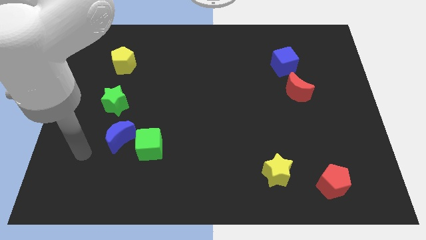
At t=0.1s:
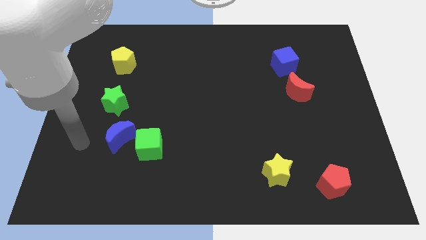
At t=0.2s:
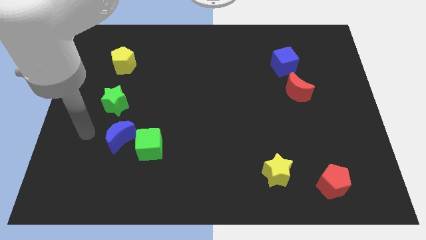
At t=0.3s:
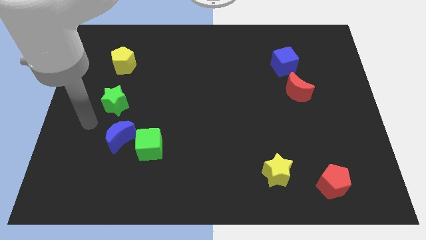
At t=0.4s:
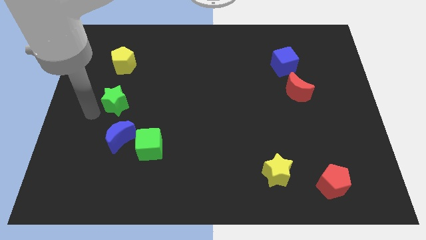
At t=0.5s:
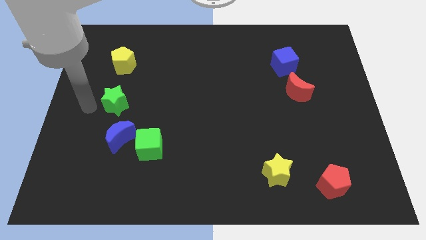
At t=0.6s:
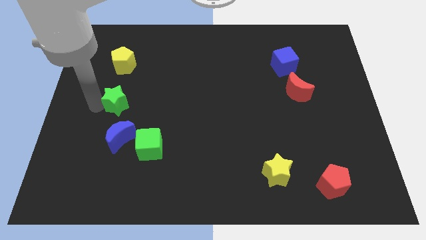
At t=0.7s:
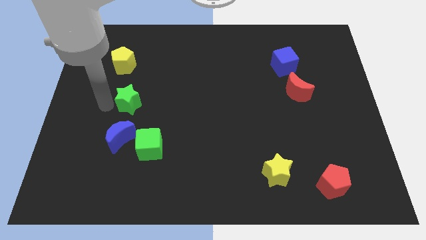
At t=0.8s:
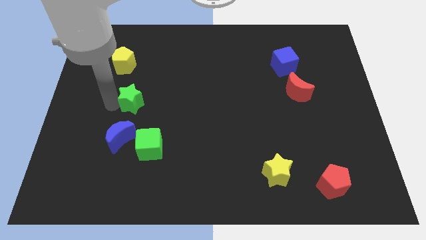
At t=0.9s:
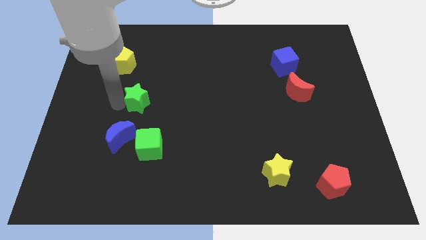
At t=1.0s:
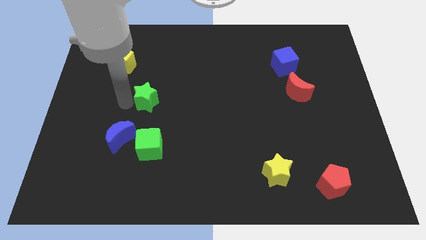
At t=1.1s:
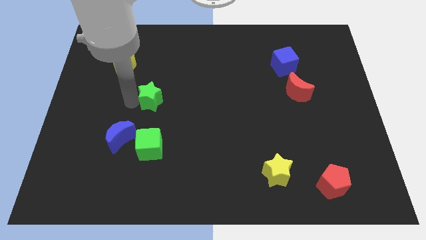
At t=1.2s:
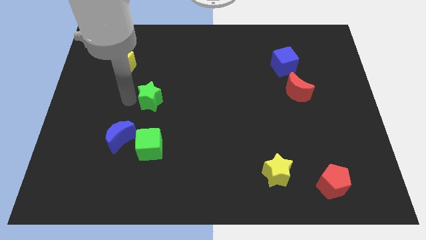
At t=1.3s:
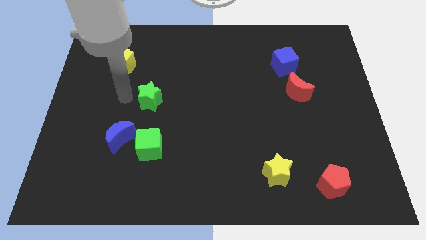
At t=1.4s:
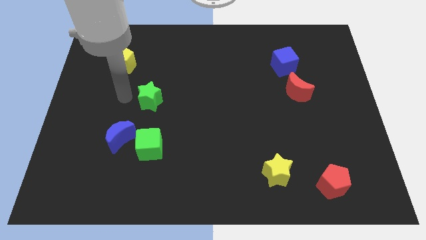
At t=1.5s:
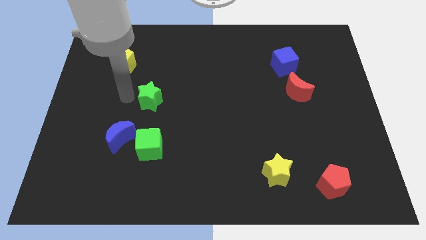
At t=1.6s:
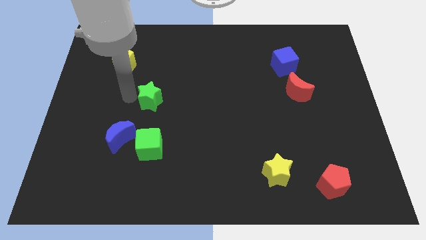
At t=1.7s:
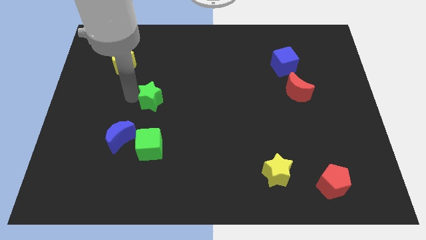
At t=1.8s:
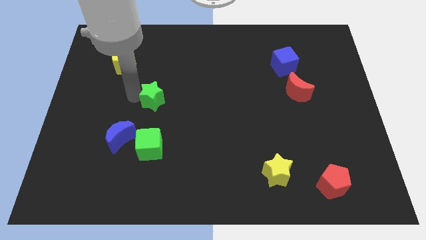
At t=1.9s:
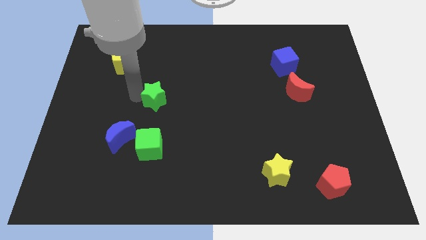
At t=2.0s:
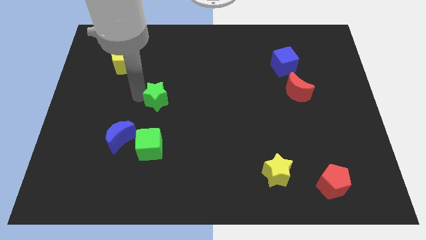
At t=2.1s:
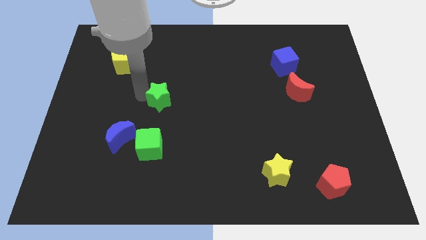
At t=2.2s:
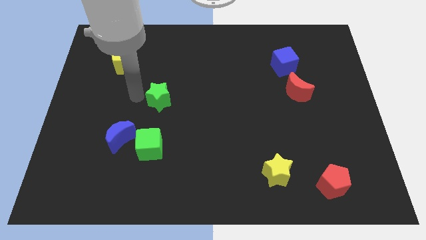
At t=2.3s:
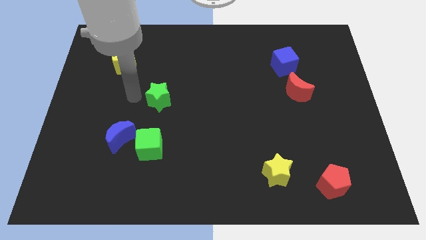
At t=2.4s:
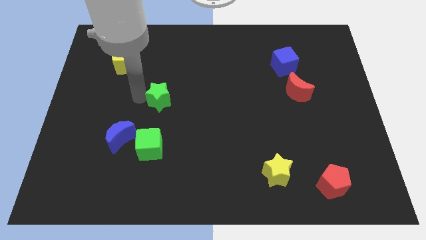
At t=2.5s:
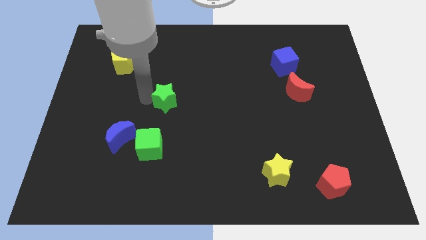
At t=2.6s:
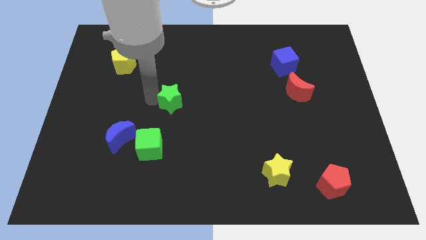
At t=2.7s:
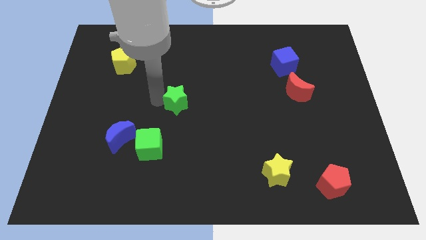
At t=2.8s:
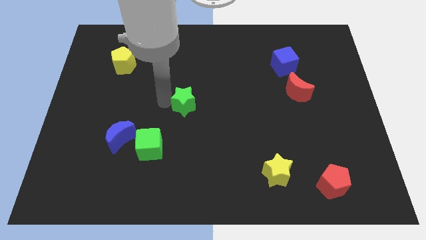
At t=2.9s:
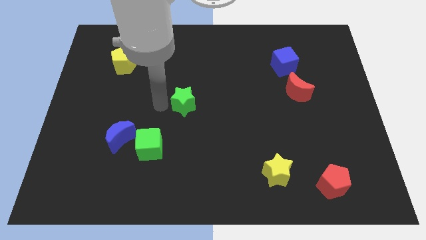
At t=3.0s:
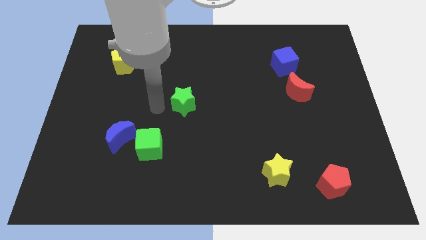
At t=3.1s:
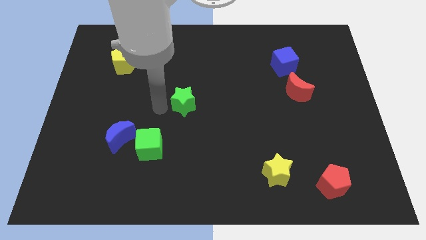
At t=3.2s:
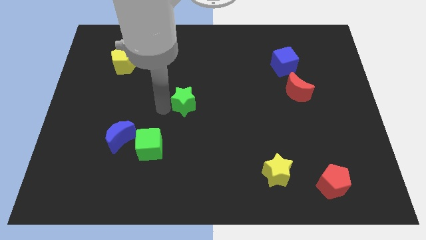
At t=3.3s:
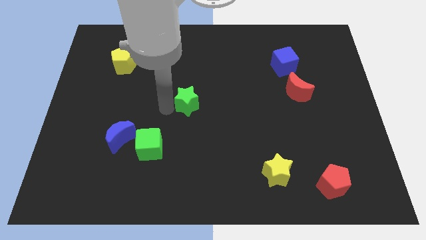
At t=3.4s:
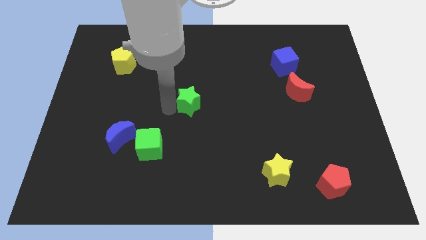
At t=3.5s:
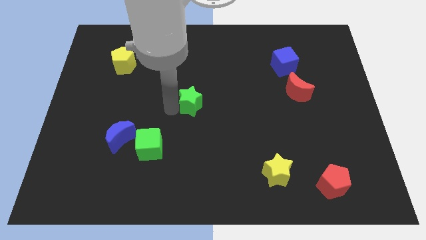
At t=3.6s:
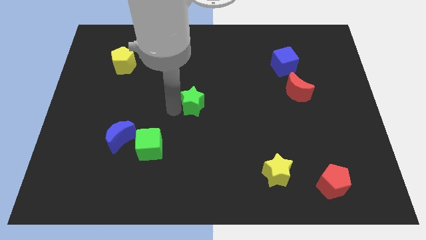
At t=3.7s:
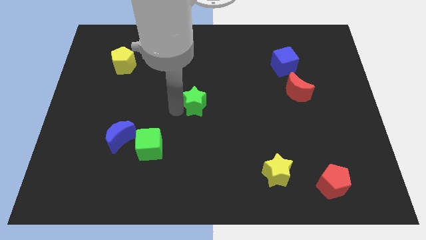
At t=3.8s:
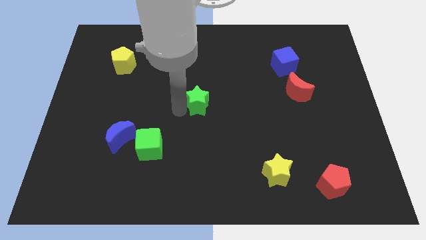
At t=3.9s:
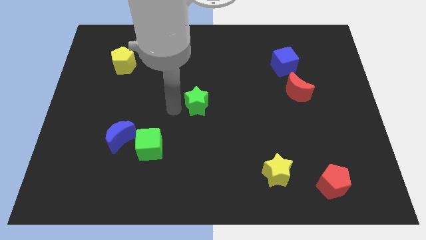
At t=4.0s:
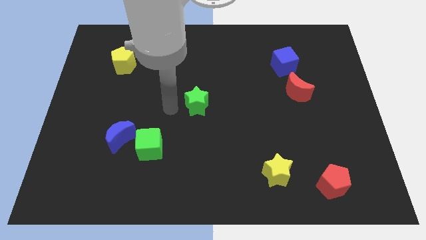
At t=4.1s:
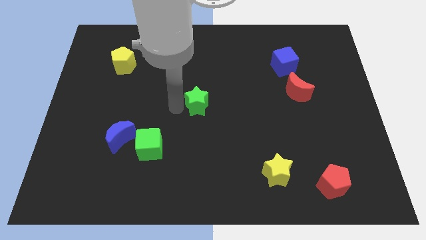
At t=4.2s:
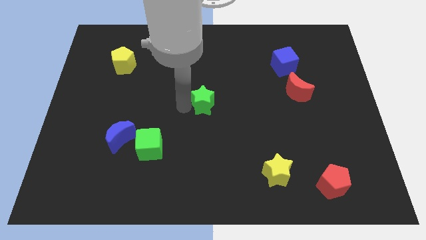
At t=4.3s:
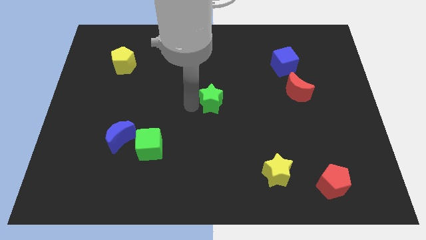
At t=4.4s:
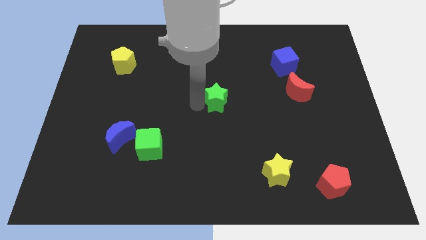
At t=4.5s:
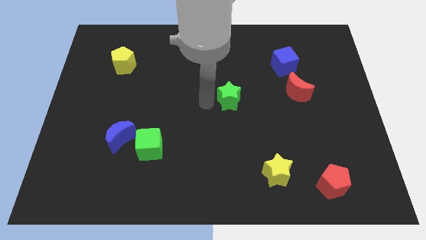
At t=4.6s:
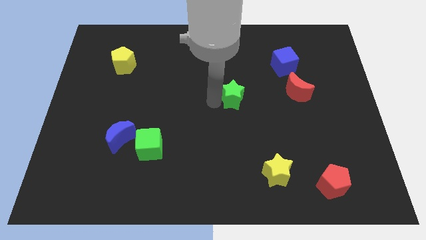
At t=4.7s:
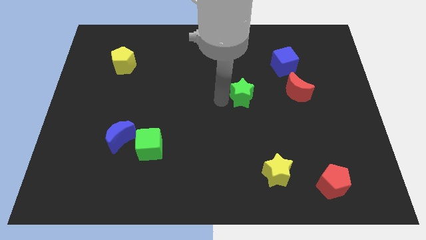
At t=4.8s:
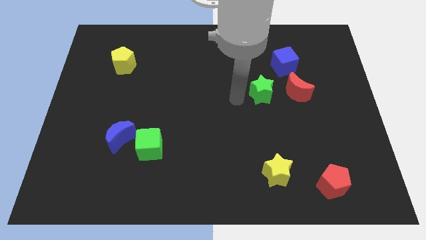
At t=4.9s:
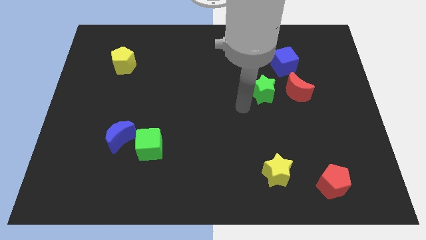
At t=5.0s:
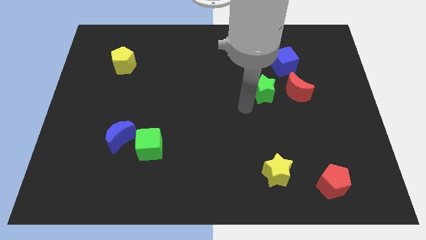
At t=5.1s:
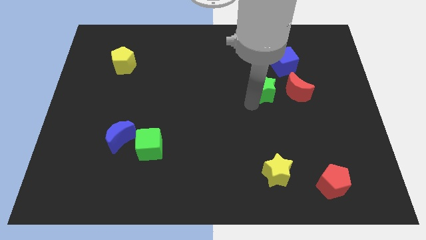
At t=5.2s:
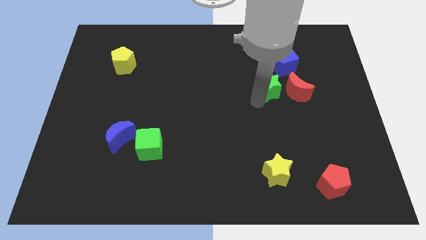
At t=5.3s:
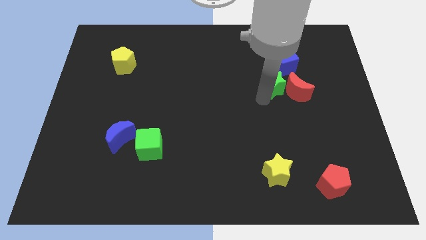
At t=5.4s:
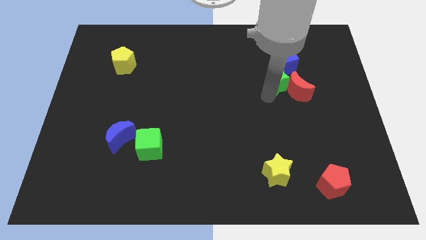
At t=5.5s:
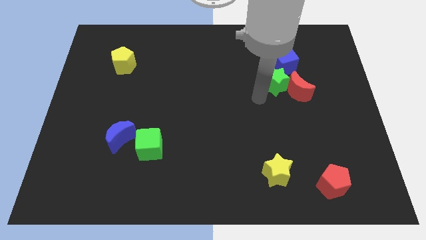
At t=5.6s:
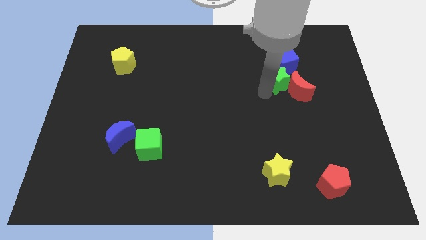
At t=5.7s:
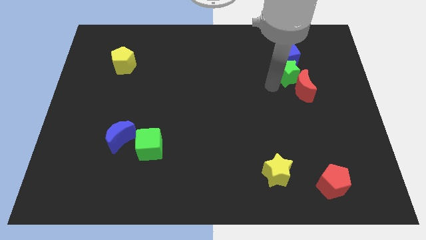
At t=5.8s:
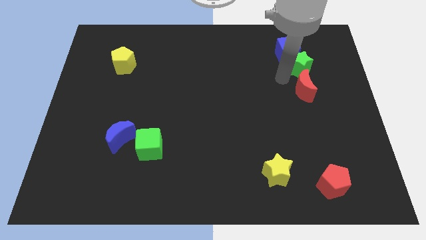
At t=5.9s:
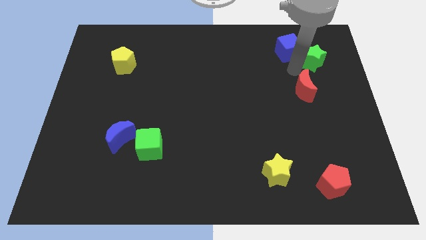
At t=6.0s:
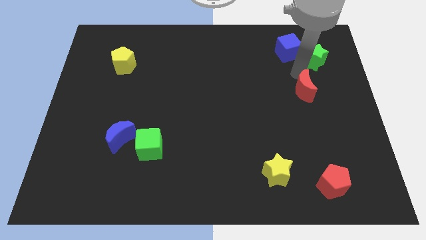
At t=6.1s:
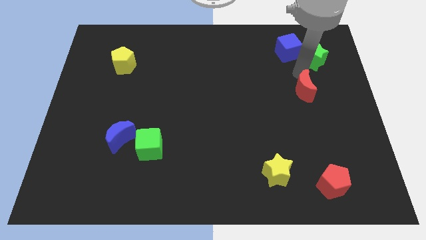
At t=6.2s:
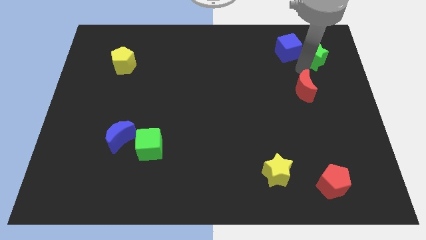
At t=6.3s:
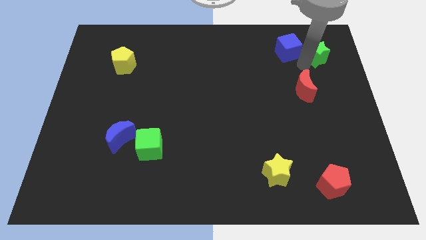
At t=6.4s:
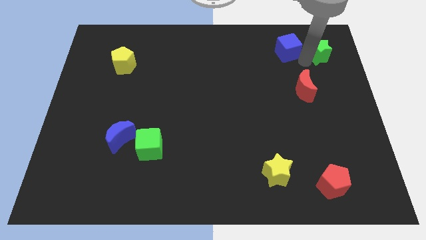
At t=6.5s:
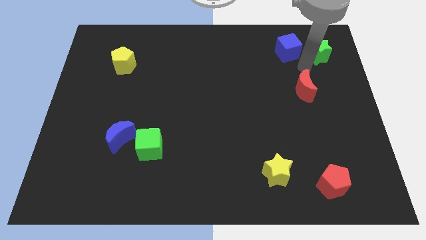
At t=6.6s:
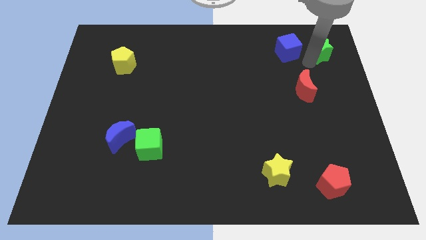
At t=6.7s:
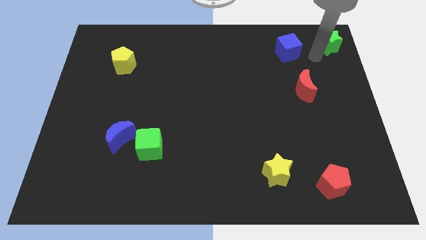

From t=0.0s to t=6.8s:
move the green star to the top right of the board
